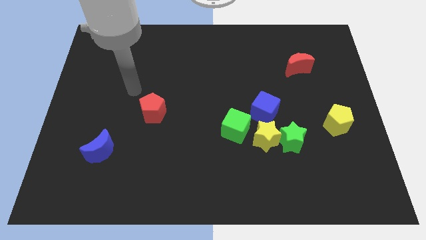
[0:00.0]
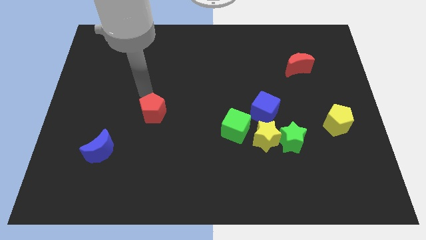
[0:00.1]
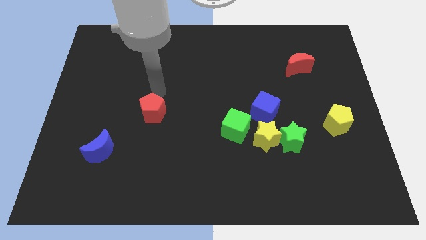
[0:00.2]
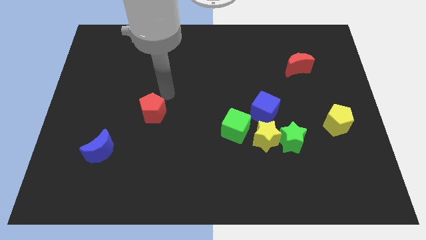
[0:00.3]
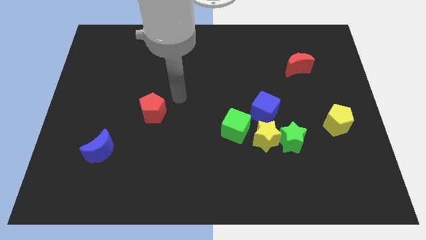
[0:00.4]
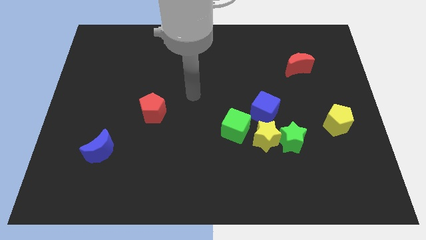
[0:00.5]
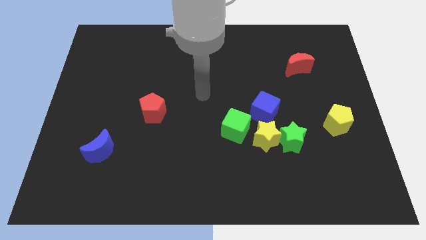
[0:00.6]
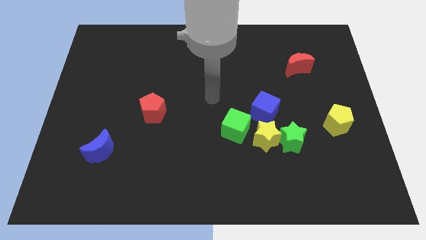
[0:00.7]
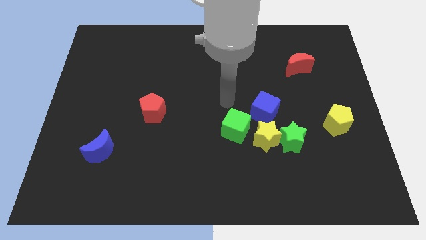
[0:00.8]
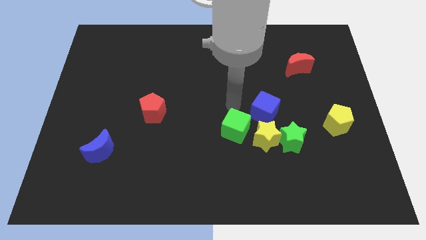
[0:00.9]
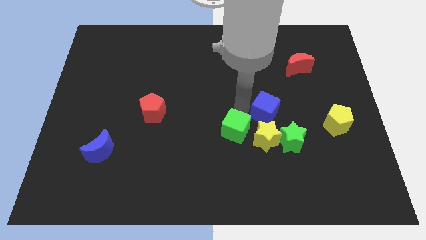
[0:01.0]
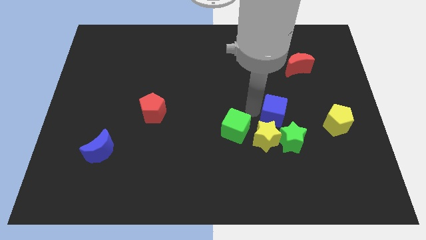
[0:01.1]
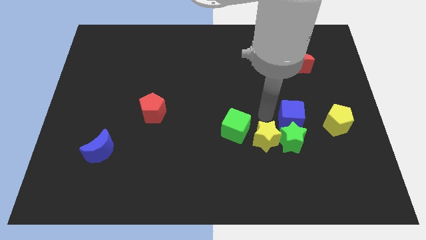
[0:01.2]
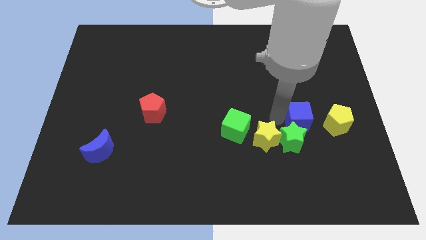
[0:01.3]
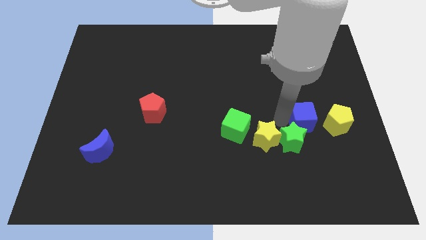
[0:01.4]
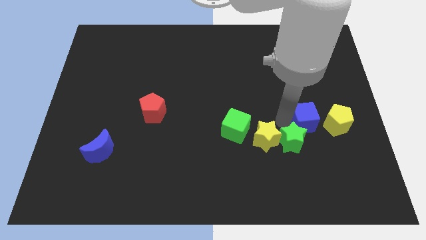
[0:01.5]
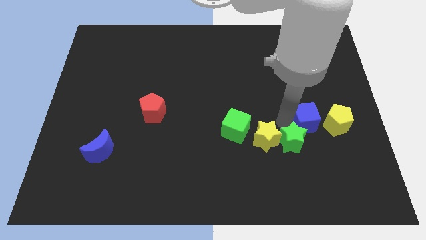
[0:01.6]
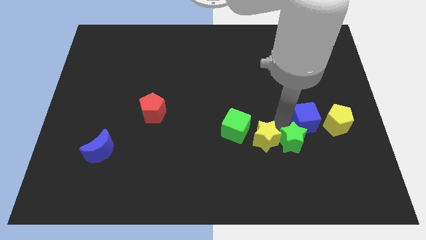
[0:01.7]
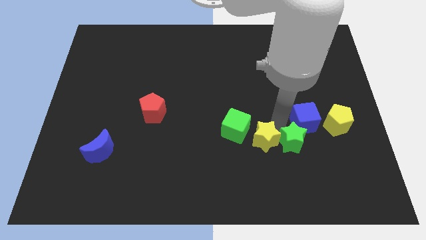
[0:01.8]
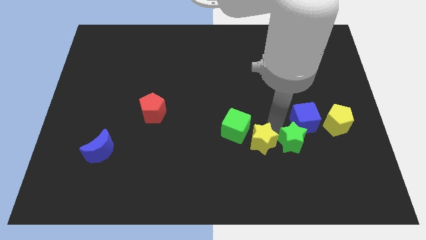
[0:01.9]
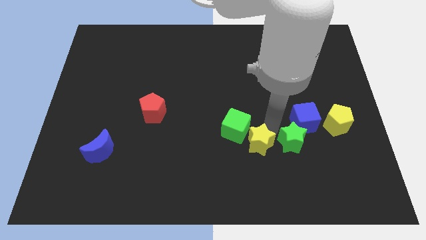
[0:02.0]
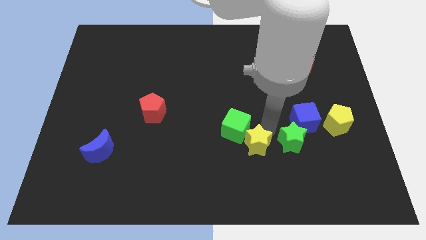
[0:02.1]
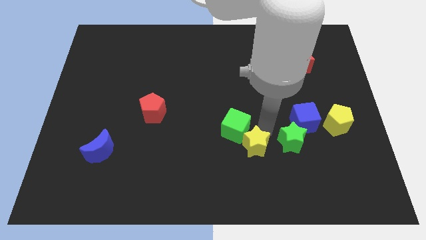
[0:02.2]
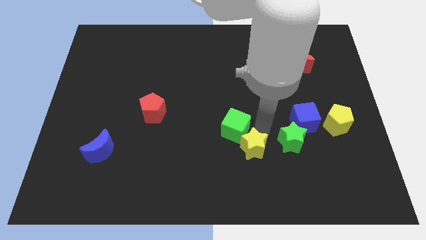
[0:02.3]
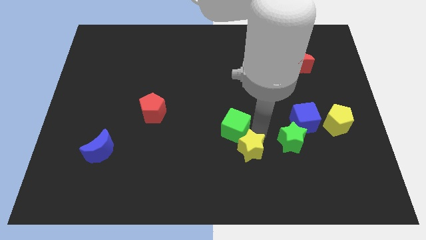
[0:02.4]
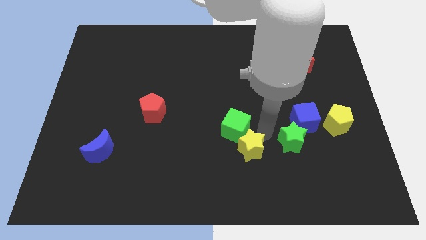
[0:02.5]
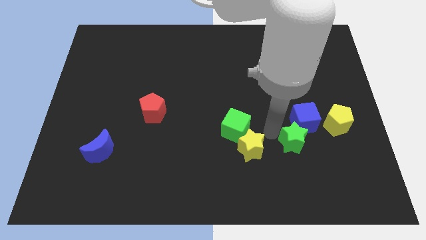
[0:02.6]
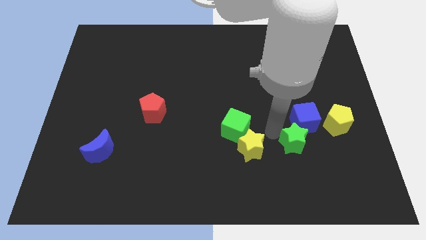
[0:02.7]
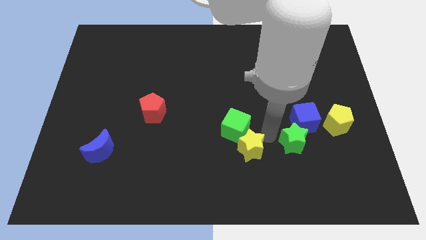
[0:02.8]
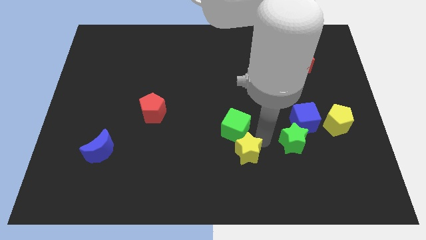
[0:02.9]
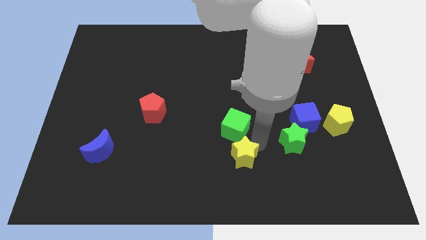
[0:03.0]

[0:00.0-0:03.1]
pull the yellow star apart from the clump

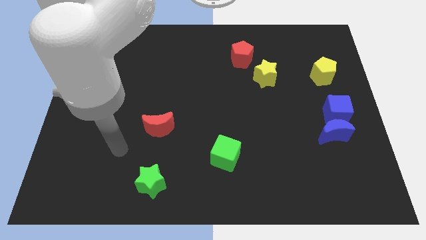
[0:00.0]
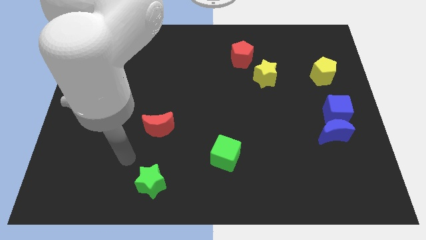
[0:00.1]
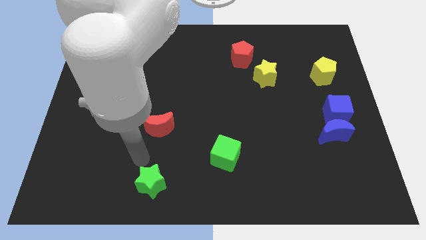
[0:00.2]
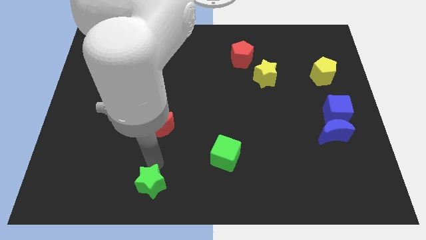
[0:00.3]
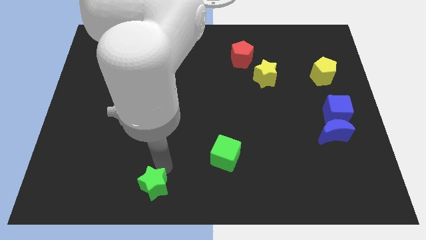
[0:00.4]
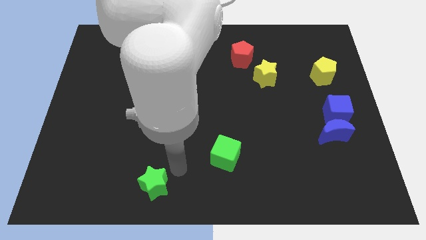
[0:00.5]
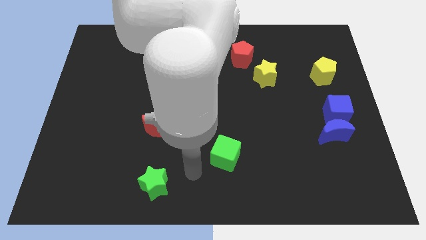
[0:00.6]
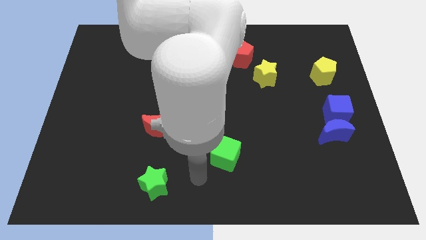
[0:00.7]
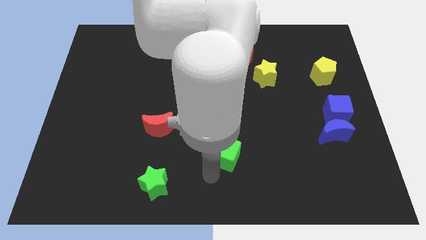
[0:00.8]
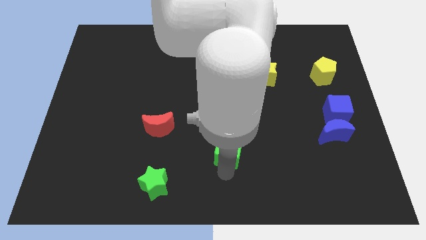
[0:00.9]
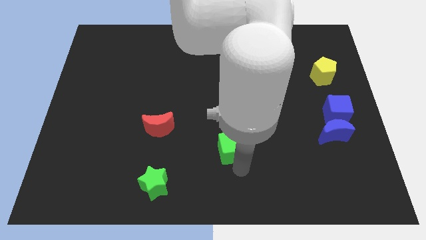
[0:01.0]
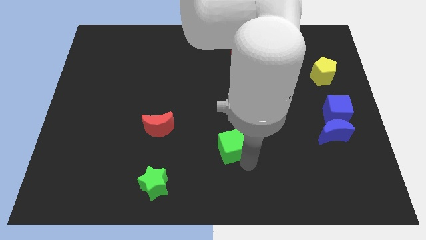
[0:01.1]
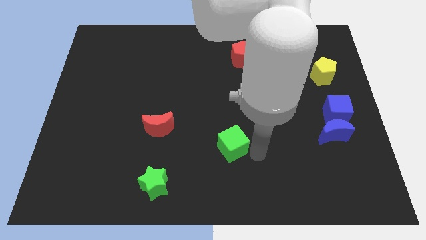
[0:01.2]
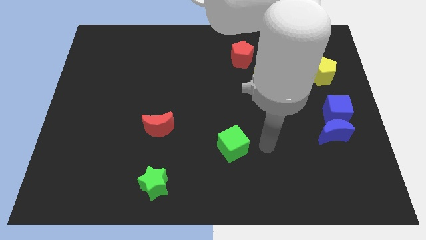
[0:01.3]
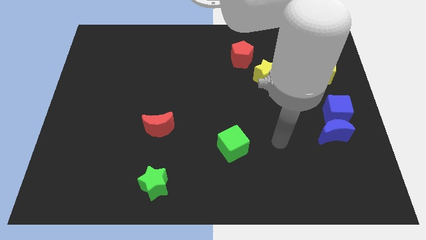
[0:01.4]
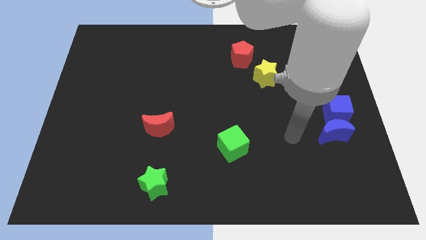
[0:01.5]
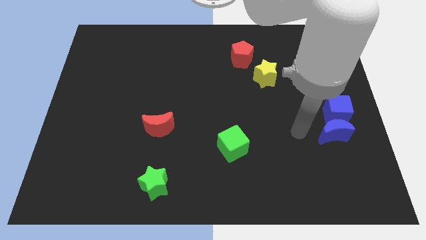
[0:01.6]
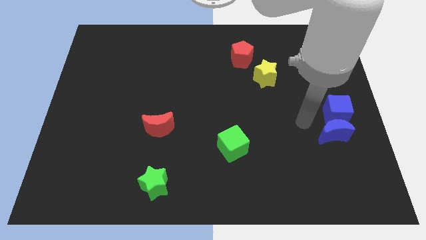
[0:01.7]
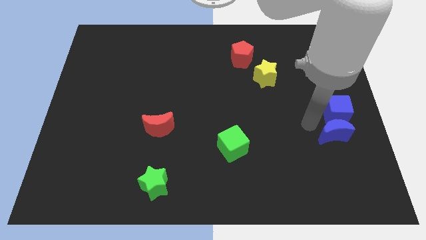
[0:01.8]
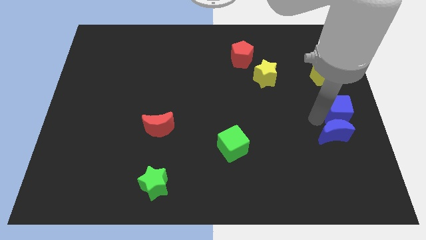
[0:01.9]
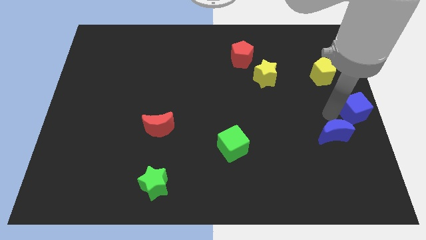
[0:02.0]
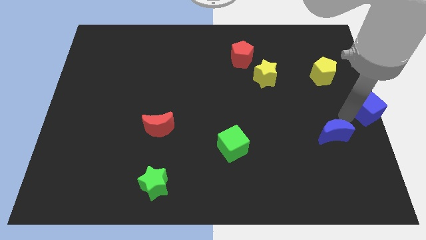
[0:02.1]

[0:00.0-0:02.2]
pull the blue moon apart from the blue cube

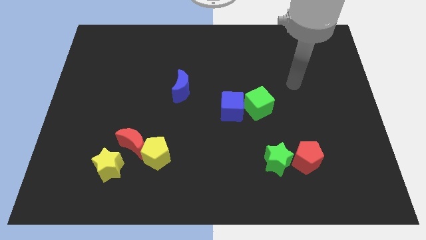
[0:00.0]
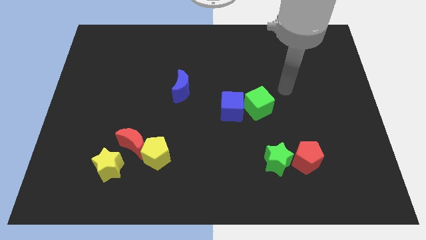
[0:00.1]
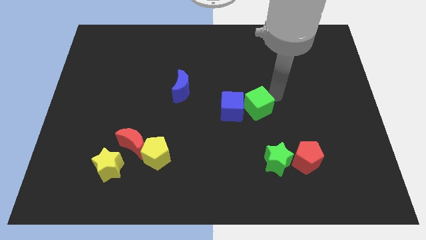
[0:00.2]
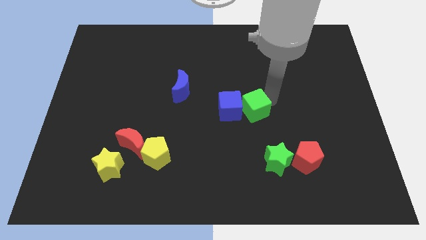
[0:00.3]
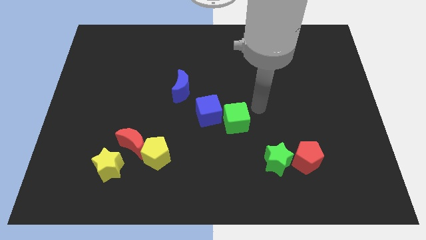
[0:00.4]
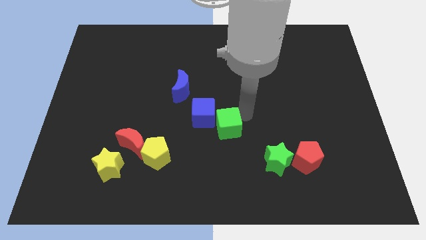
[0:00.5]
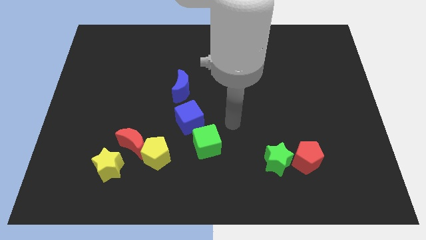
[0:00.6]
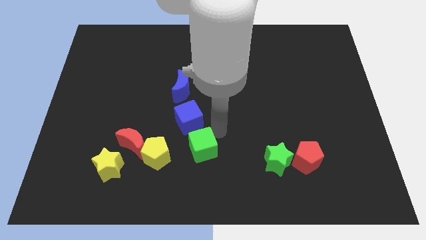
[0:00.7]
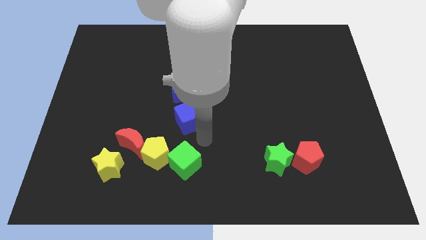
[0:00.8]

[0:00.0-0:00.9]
pull the blue cube apart from the green cube

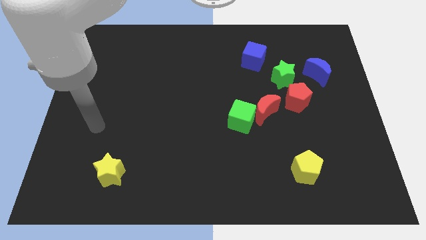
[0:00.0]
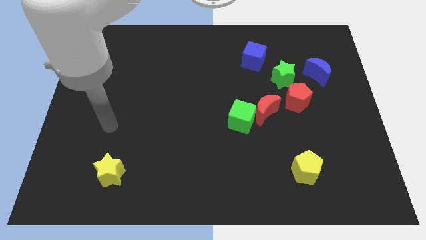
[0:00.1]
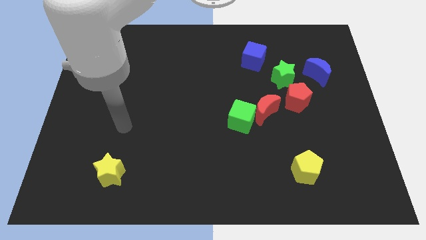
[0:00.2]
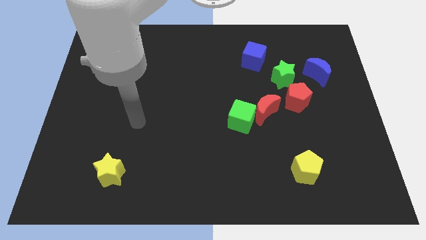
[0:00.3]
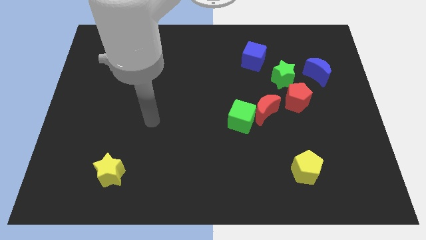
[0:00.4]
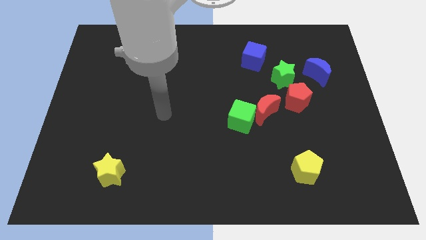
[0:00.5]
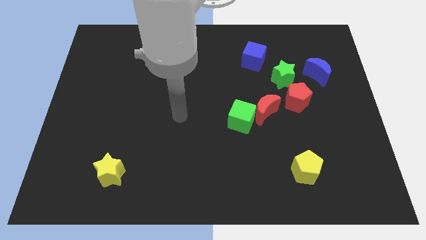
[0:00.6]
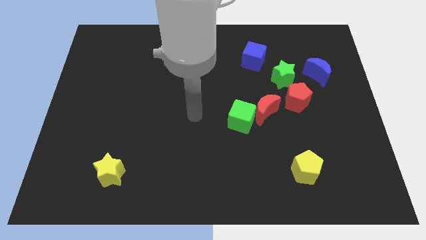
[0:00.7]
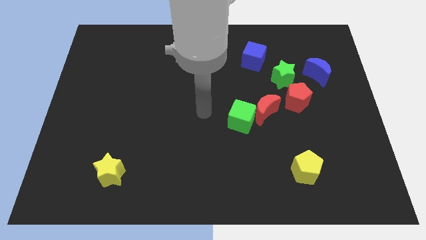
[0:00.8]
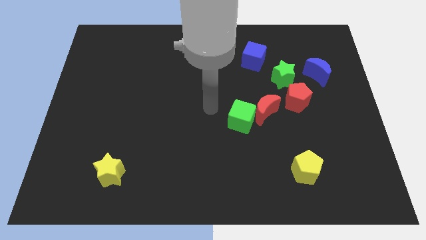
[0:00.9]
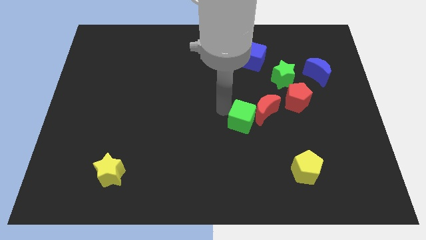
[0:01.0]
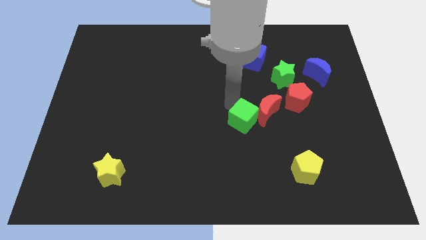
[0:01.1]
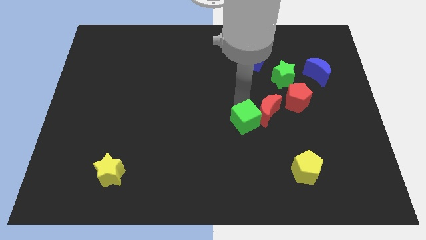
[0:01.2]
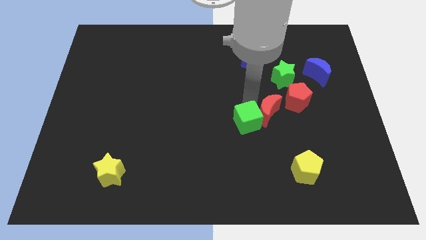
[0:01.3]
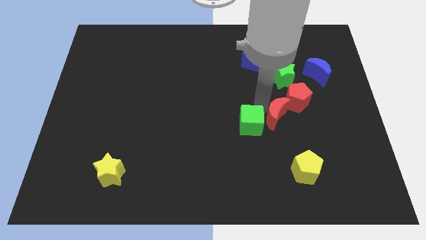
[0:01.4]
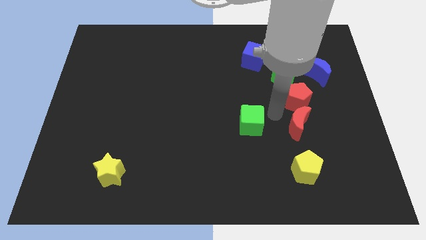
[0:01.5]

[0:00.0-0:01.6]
pull the green cube apart from the red moon

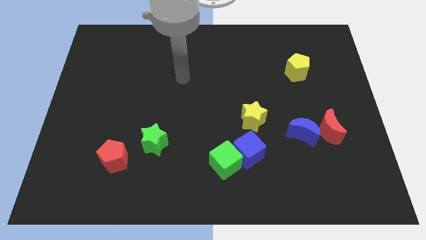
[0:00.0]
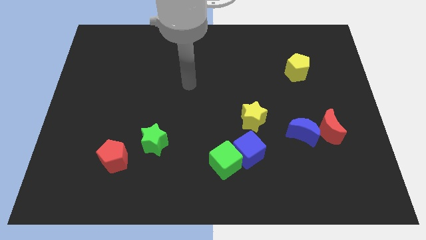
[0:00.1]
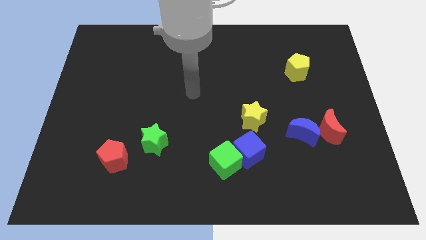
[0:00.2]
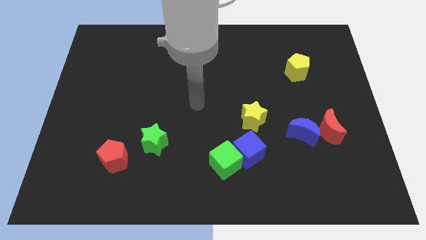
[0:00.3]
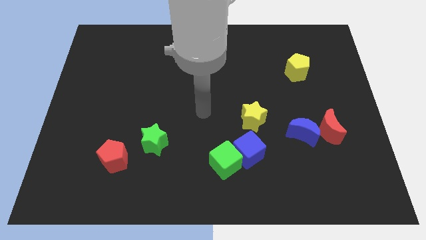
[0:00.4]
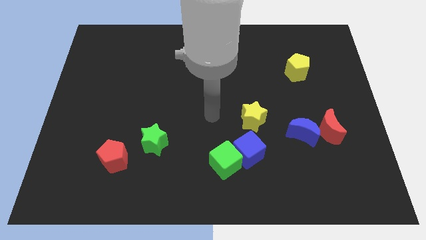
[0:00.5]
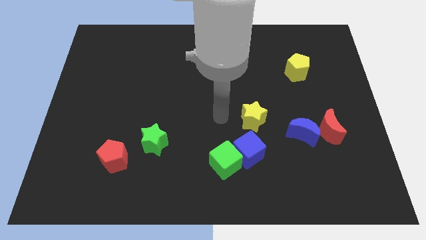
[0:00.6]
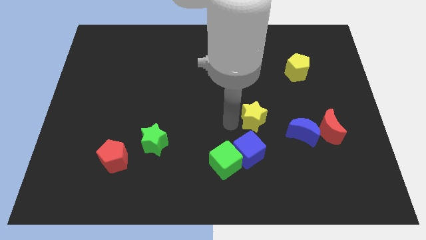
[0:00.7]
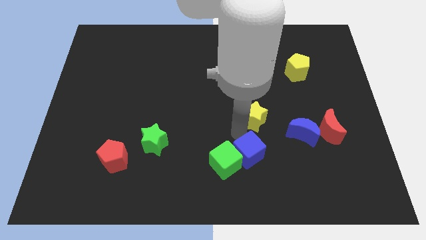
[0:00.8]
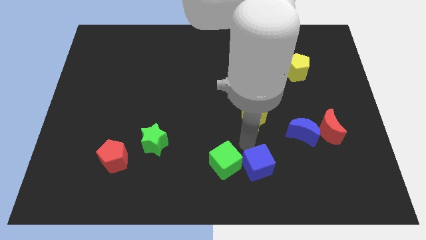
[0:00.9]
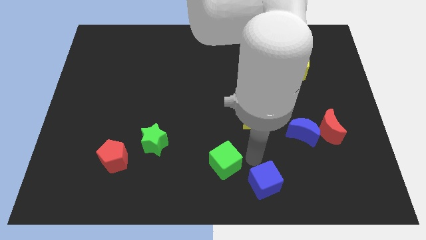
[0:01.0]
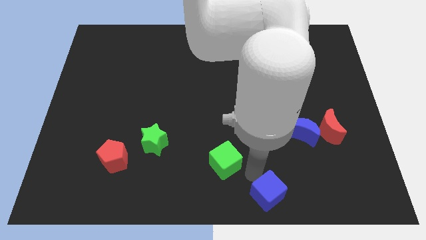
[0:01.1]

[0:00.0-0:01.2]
pull the green cube apart from the blue cube

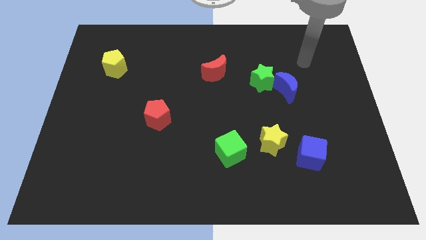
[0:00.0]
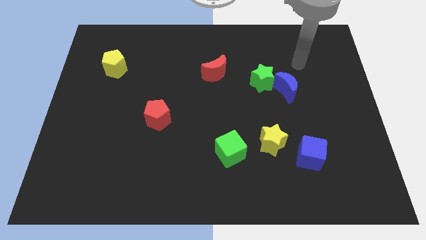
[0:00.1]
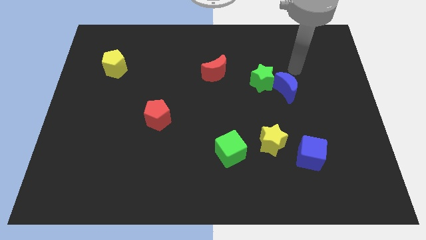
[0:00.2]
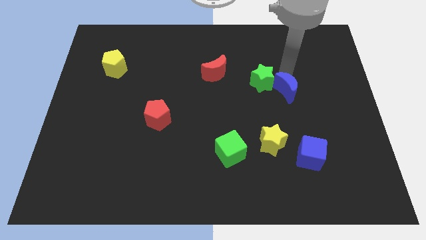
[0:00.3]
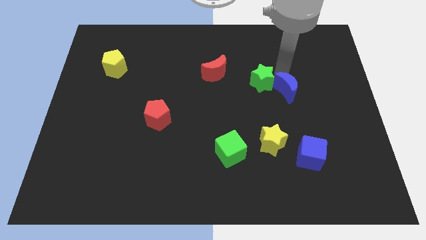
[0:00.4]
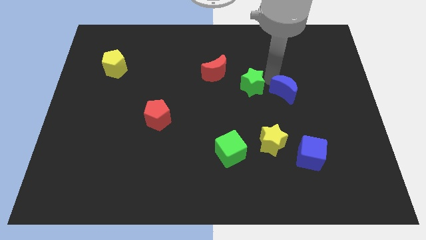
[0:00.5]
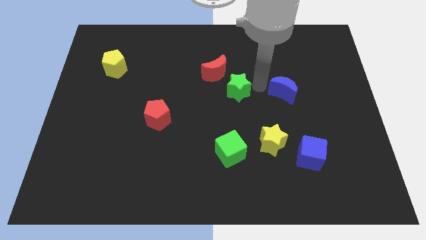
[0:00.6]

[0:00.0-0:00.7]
move the blue moon away from the green star
